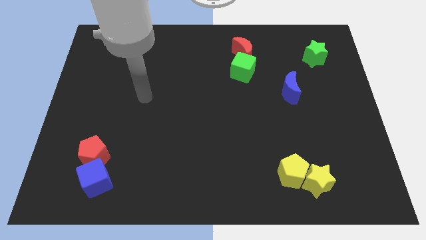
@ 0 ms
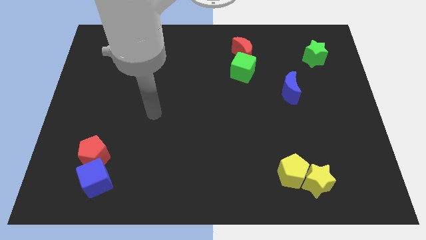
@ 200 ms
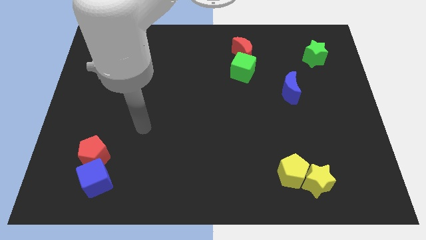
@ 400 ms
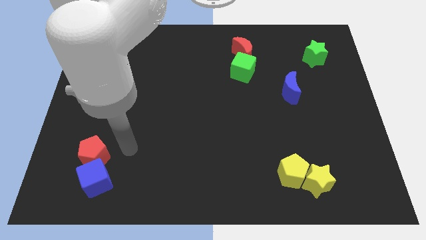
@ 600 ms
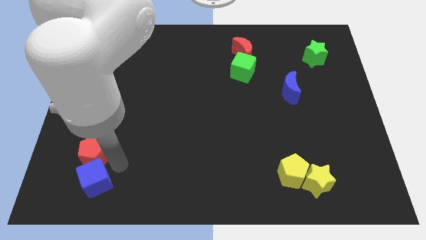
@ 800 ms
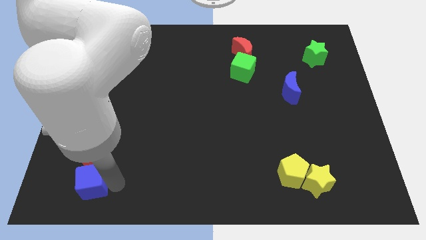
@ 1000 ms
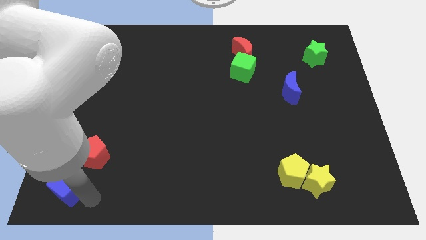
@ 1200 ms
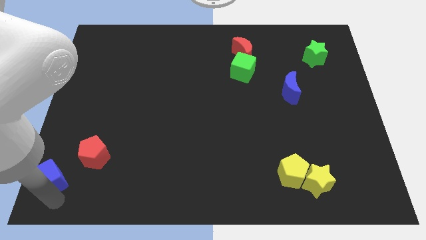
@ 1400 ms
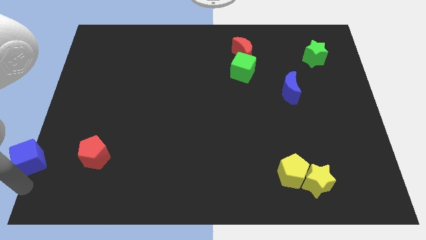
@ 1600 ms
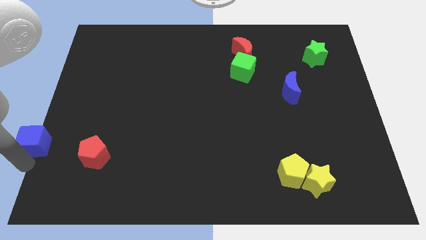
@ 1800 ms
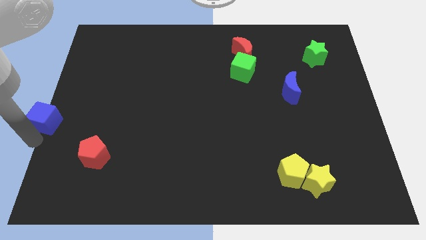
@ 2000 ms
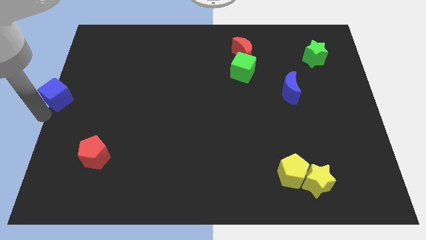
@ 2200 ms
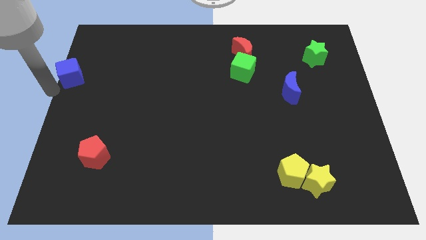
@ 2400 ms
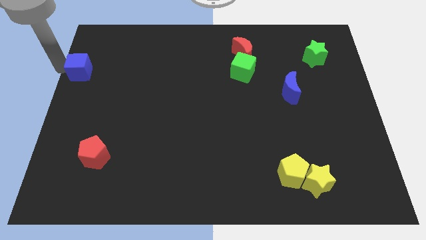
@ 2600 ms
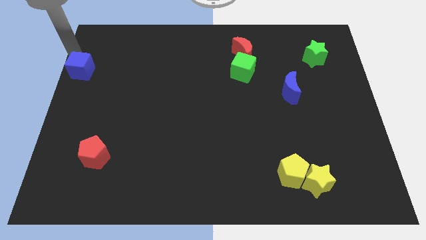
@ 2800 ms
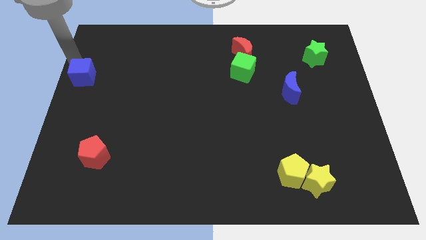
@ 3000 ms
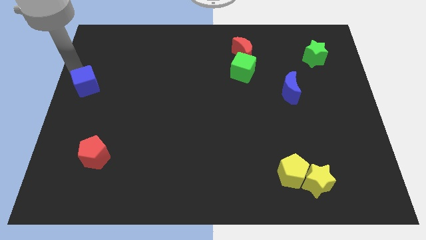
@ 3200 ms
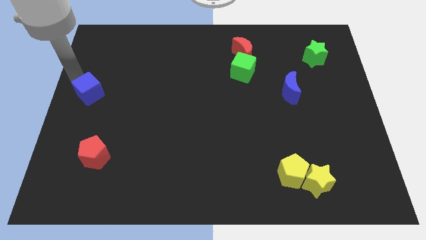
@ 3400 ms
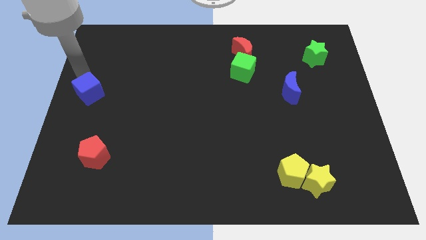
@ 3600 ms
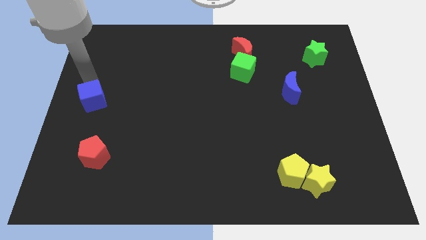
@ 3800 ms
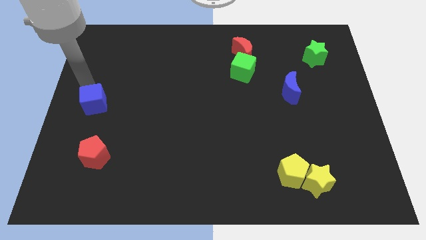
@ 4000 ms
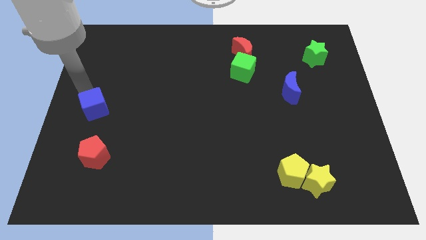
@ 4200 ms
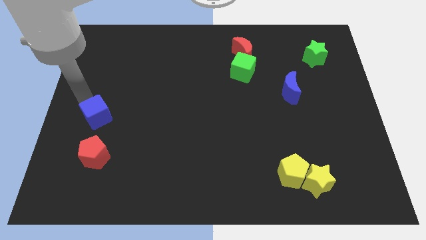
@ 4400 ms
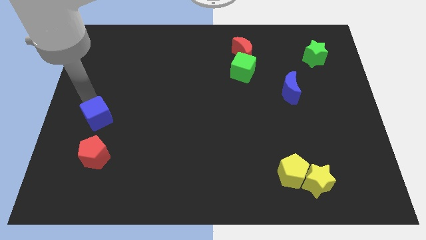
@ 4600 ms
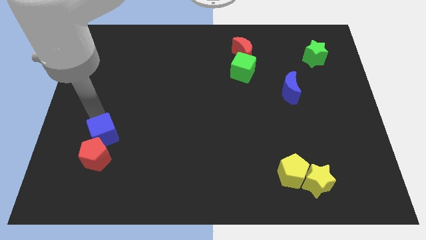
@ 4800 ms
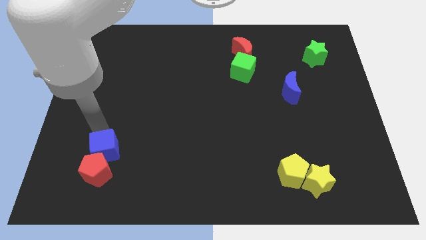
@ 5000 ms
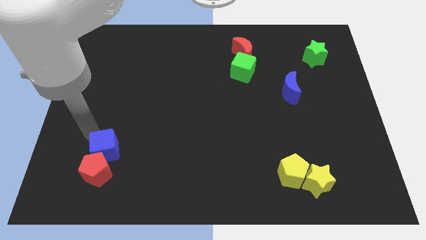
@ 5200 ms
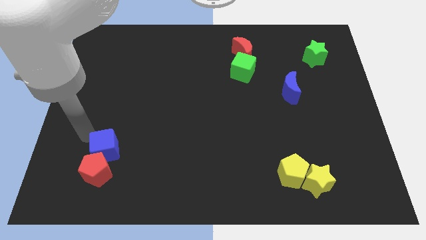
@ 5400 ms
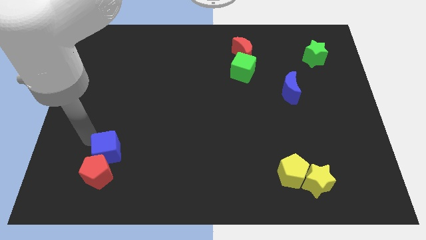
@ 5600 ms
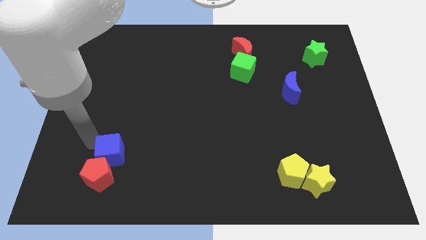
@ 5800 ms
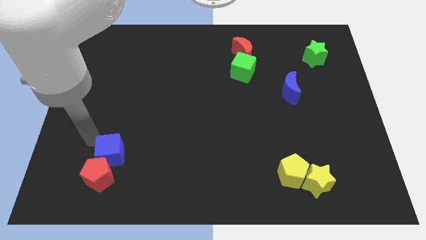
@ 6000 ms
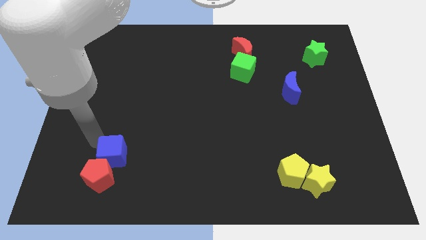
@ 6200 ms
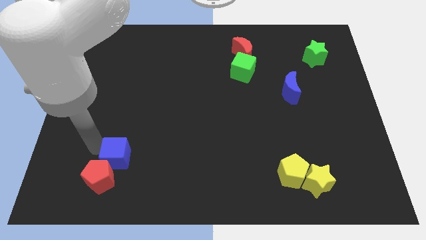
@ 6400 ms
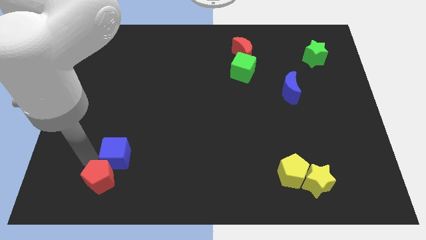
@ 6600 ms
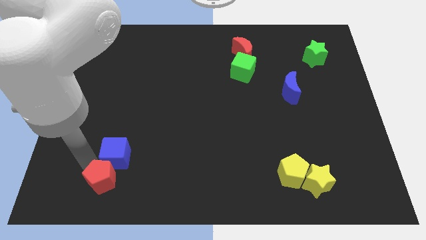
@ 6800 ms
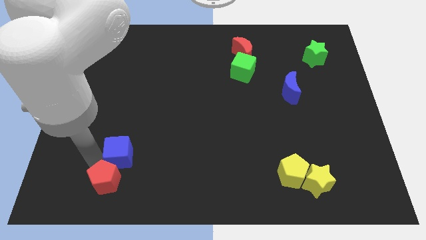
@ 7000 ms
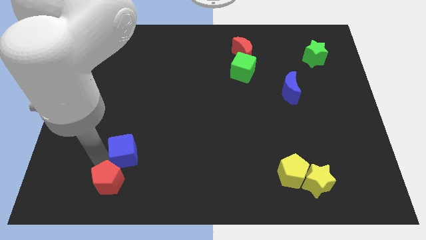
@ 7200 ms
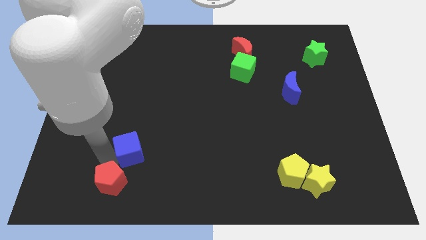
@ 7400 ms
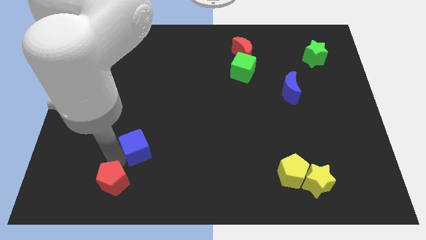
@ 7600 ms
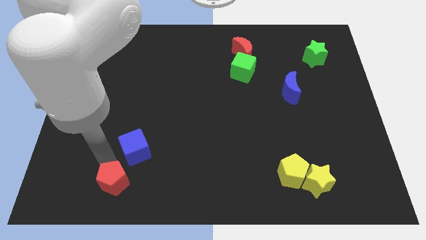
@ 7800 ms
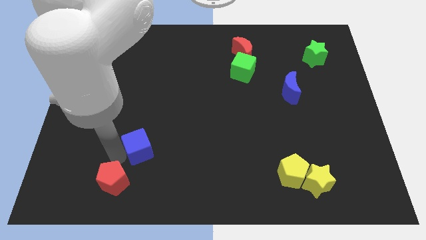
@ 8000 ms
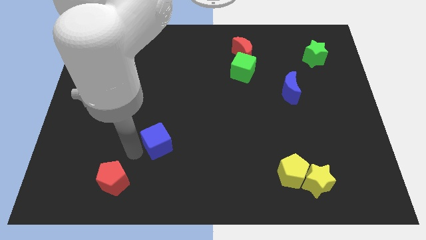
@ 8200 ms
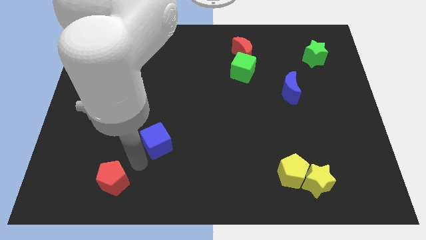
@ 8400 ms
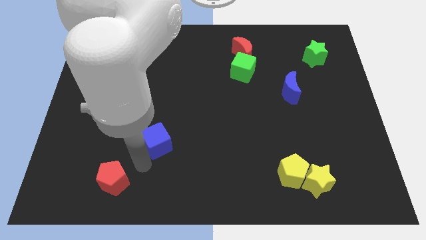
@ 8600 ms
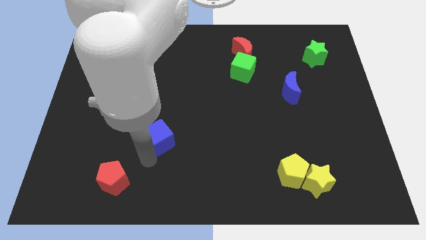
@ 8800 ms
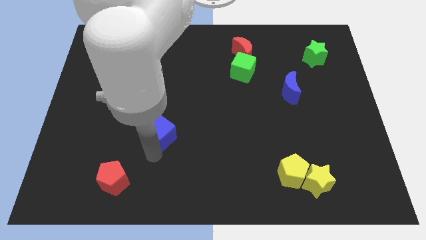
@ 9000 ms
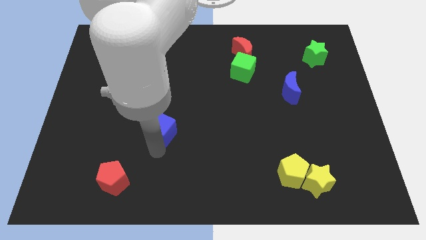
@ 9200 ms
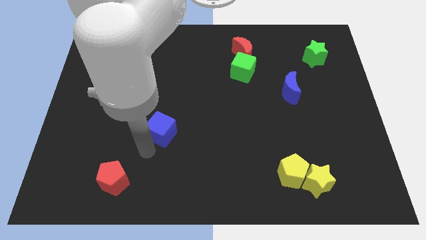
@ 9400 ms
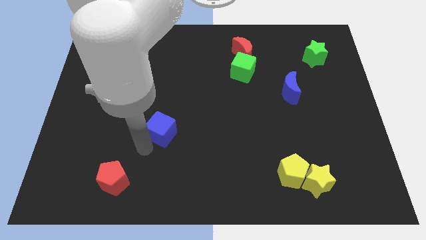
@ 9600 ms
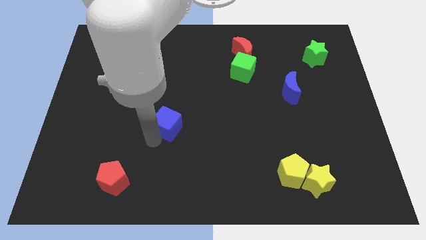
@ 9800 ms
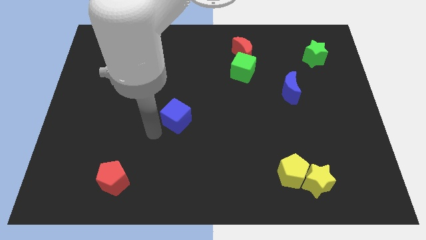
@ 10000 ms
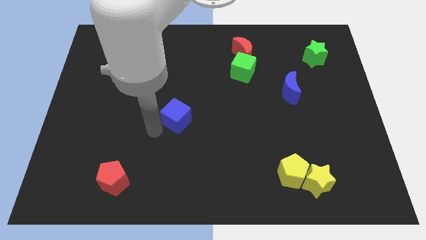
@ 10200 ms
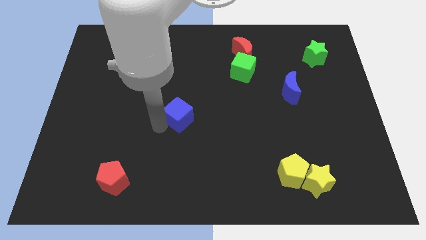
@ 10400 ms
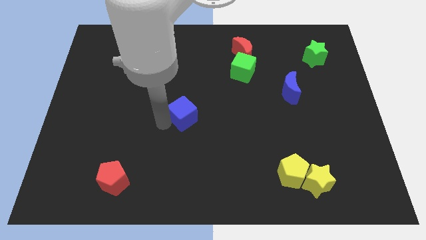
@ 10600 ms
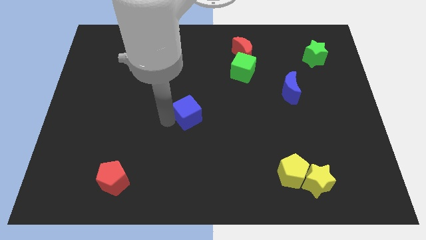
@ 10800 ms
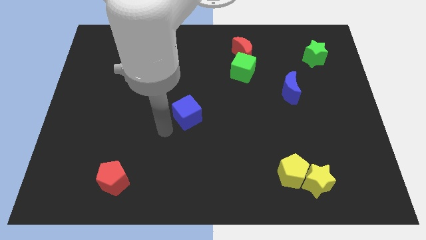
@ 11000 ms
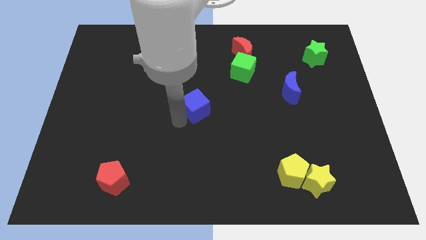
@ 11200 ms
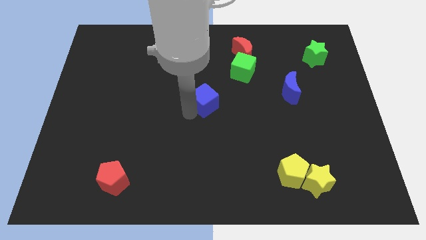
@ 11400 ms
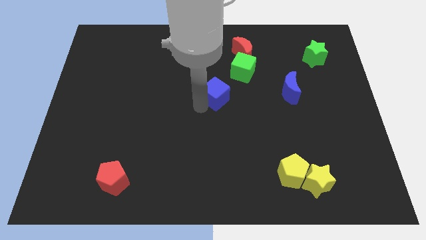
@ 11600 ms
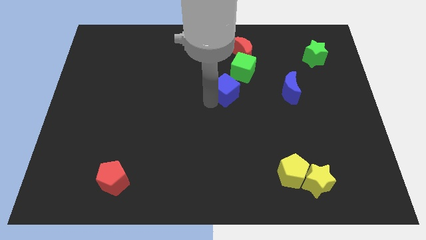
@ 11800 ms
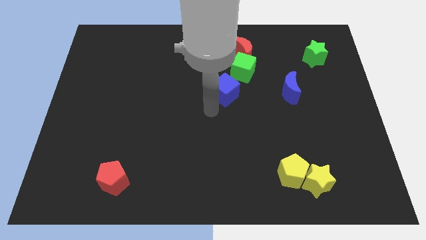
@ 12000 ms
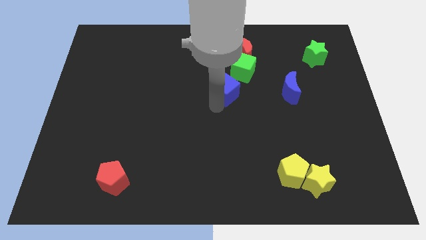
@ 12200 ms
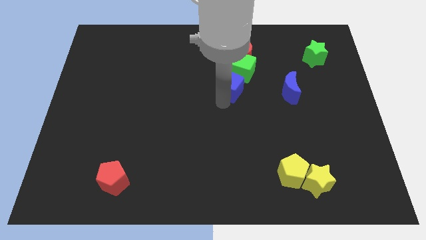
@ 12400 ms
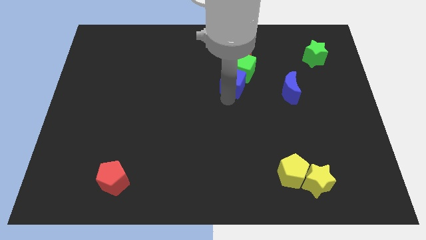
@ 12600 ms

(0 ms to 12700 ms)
put the blue cube next to the green cube

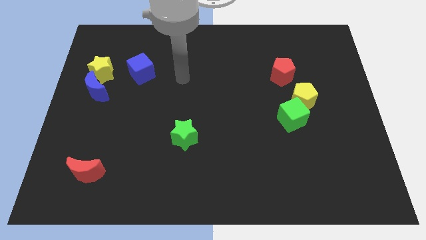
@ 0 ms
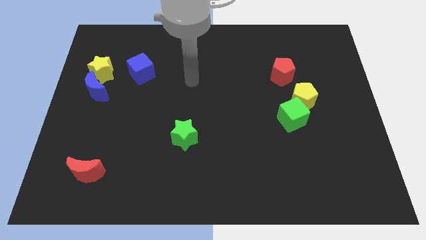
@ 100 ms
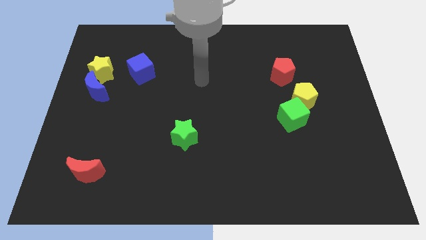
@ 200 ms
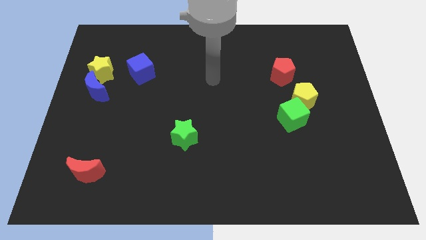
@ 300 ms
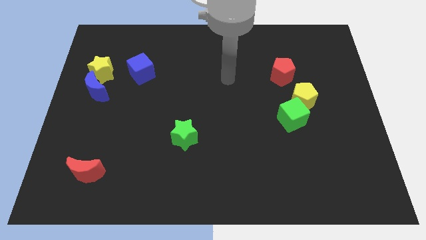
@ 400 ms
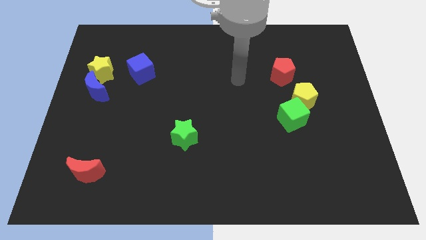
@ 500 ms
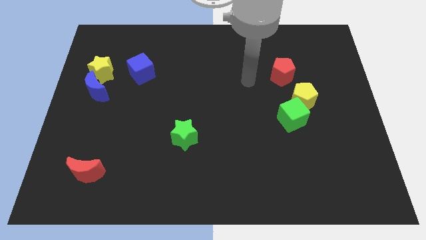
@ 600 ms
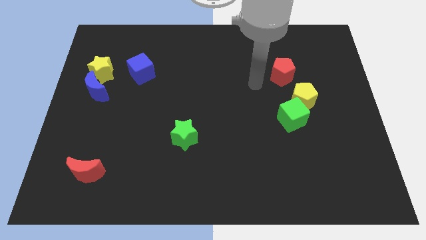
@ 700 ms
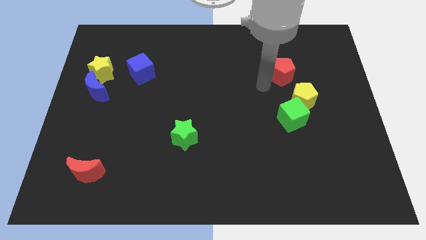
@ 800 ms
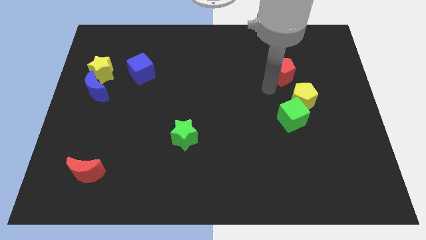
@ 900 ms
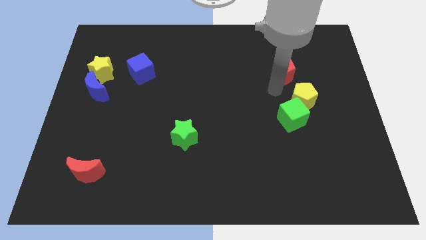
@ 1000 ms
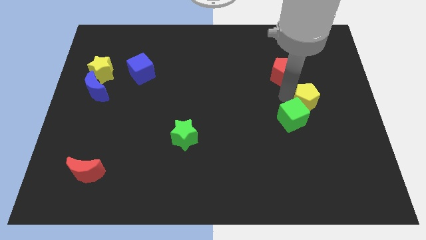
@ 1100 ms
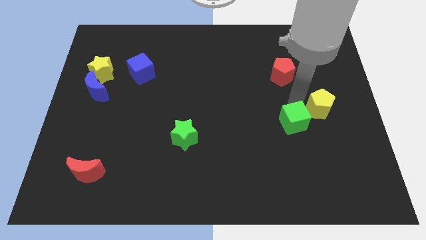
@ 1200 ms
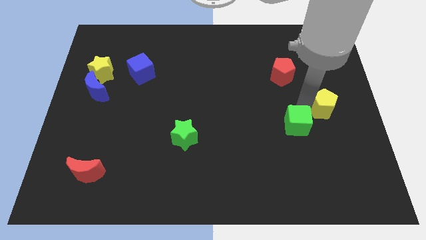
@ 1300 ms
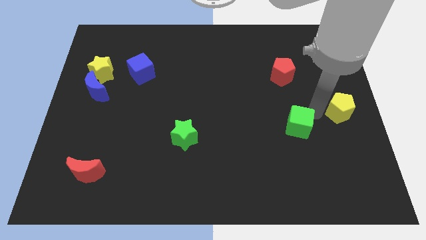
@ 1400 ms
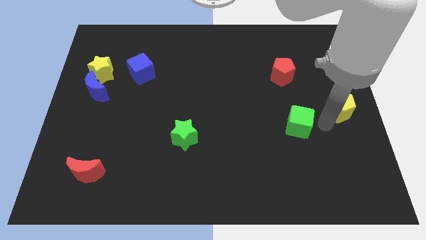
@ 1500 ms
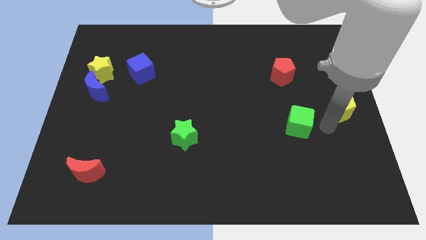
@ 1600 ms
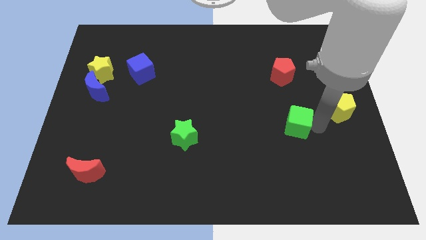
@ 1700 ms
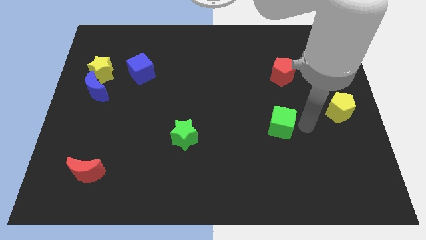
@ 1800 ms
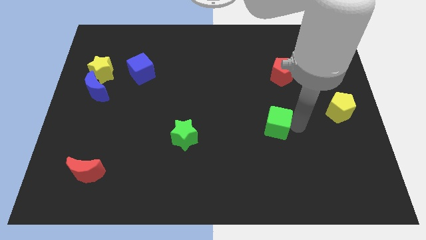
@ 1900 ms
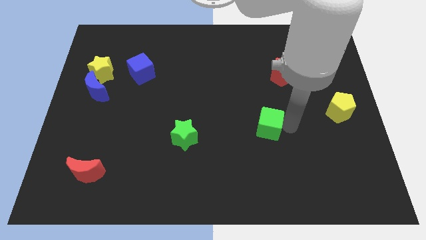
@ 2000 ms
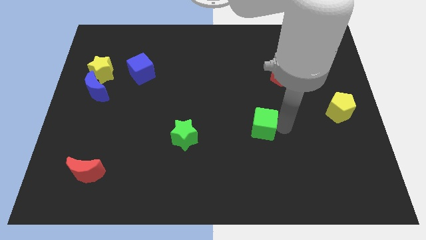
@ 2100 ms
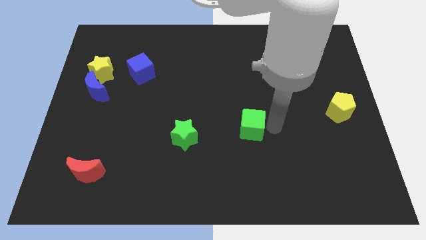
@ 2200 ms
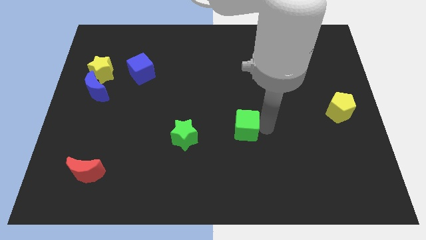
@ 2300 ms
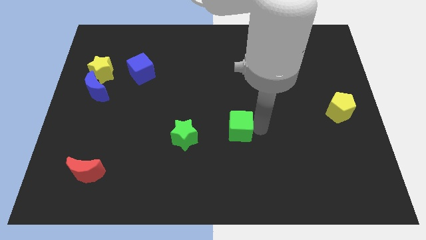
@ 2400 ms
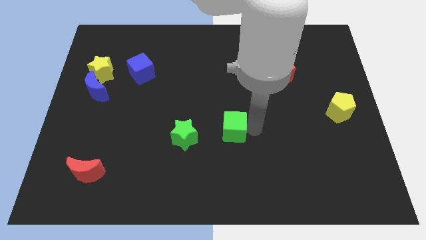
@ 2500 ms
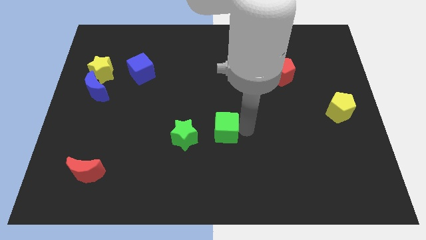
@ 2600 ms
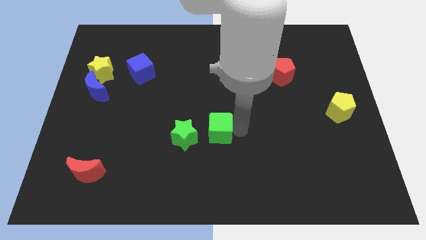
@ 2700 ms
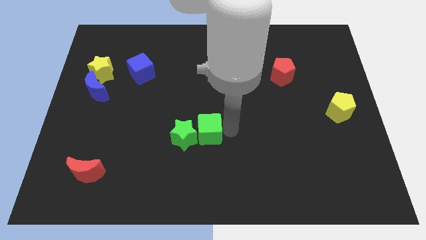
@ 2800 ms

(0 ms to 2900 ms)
push the green cube towards the green star
